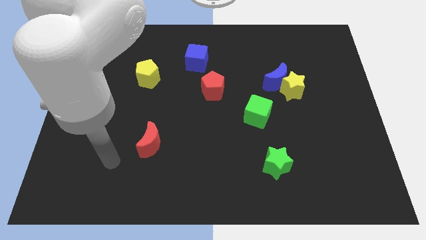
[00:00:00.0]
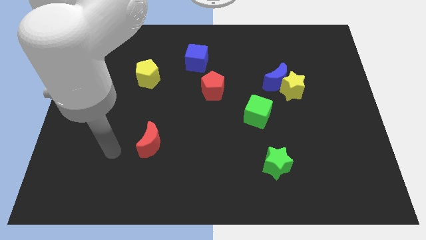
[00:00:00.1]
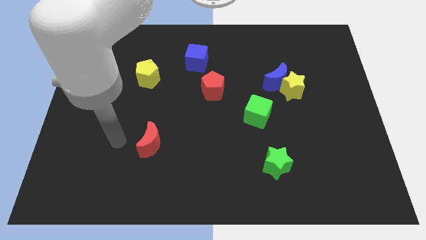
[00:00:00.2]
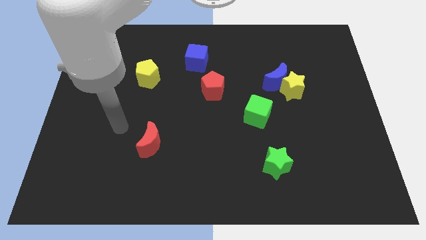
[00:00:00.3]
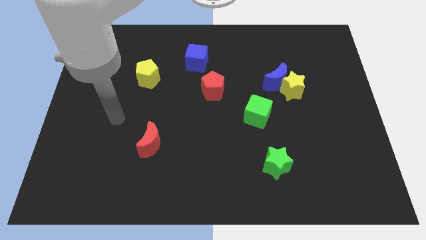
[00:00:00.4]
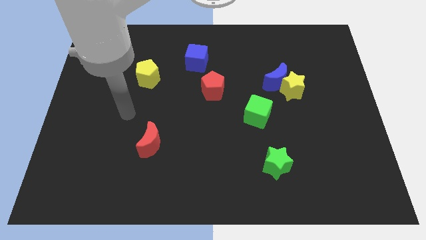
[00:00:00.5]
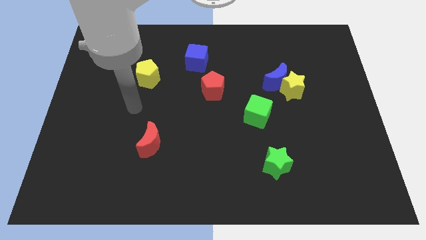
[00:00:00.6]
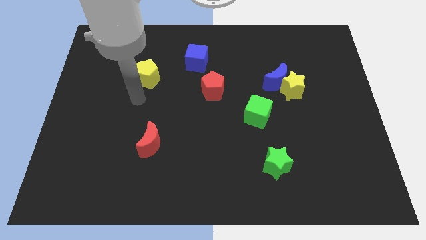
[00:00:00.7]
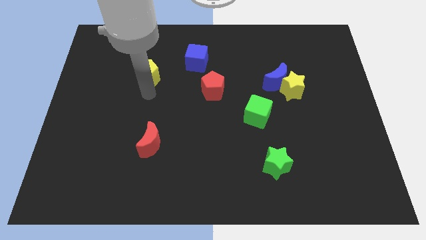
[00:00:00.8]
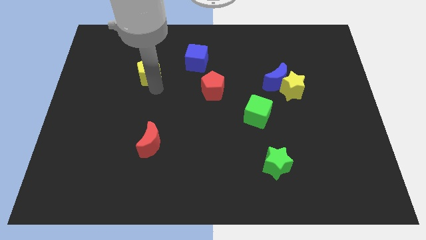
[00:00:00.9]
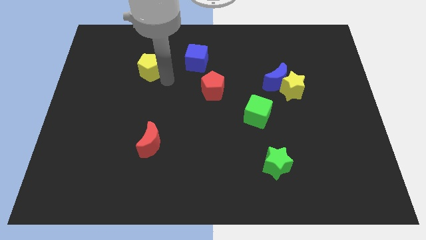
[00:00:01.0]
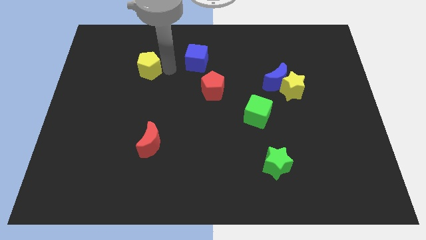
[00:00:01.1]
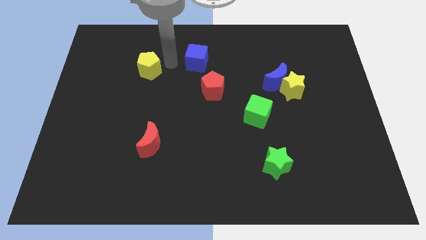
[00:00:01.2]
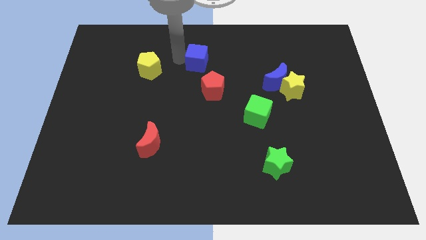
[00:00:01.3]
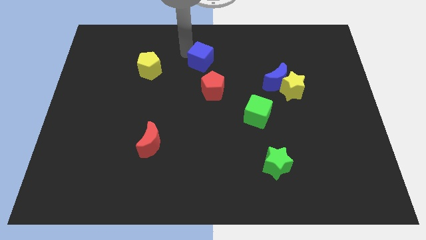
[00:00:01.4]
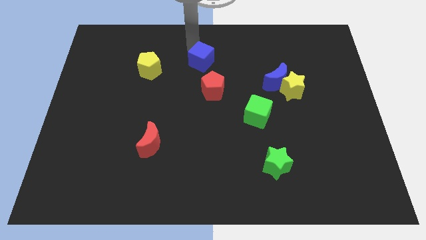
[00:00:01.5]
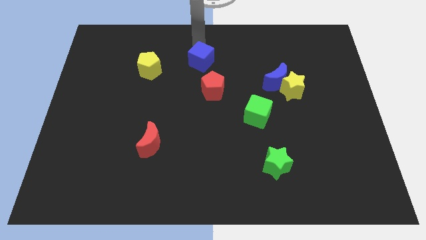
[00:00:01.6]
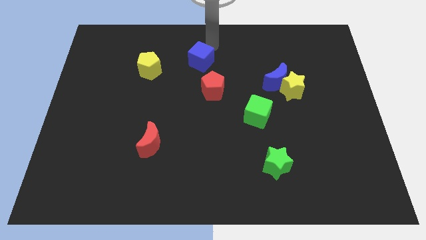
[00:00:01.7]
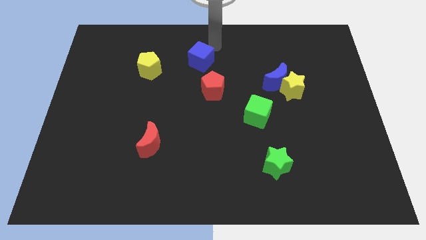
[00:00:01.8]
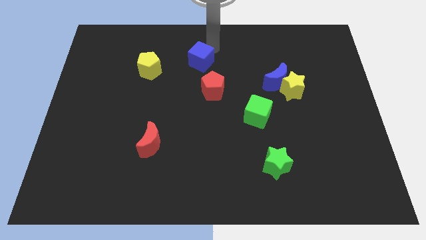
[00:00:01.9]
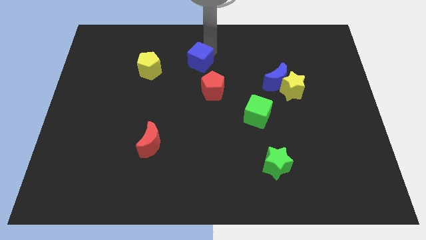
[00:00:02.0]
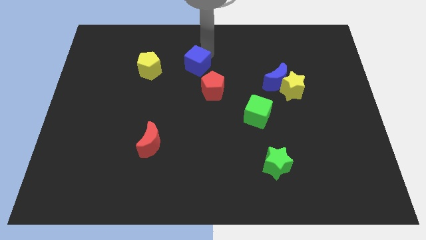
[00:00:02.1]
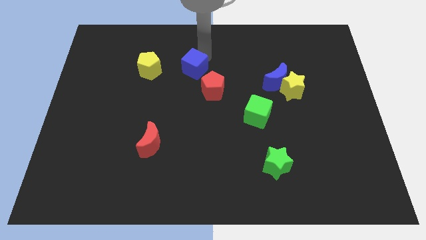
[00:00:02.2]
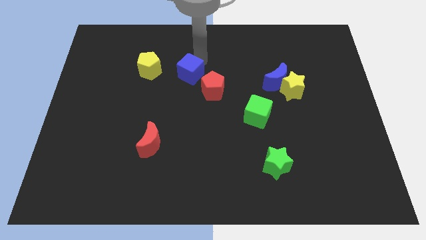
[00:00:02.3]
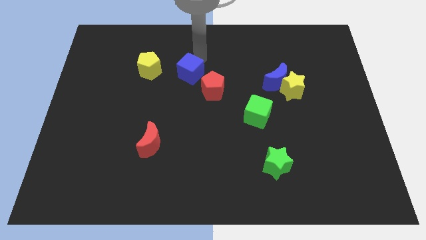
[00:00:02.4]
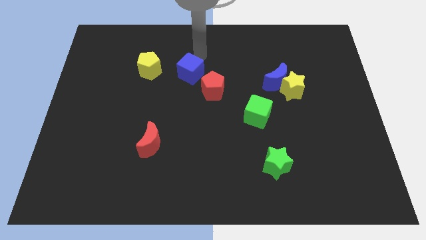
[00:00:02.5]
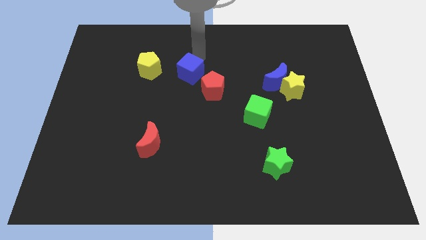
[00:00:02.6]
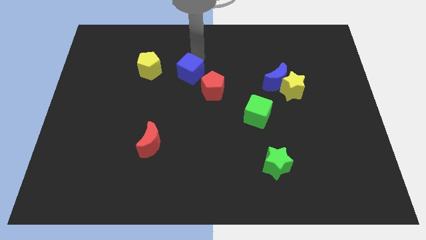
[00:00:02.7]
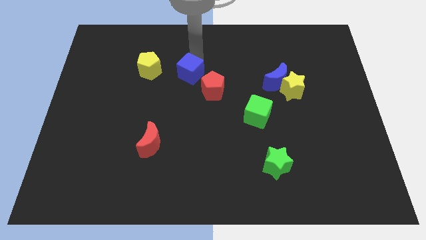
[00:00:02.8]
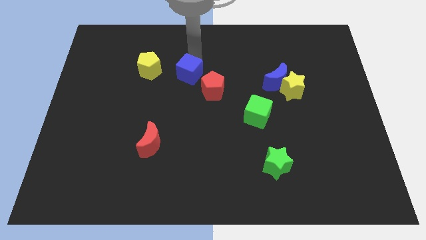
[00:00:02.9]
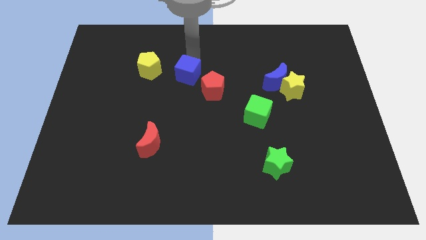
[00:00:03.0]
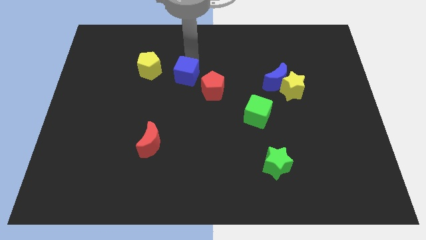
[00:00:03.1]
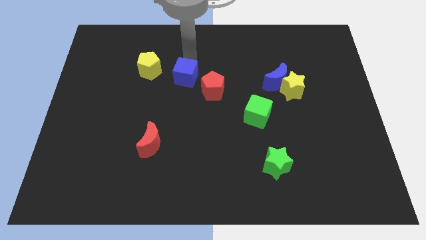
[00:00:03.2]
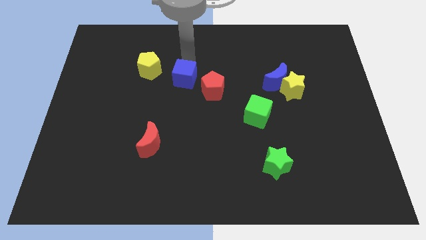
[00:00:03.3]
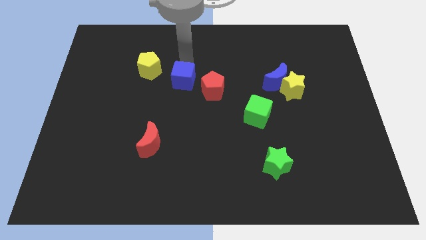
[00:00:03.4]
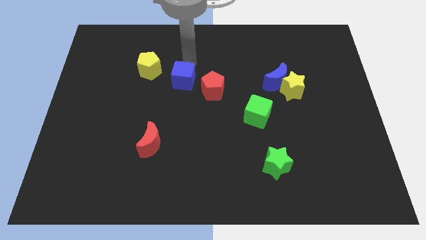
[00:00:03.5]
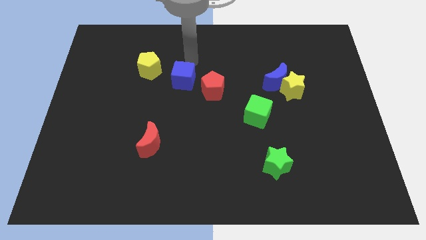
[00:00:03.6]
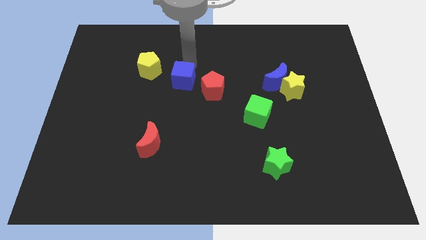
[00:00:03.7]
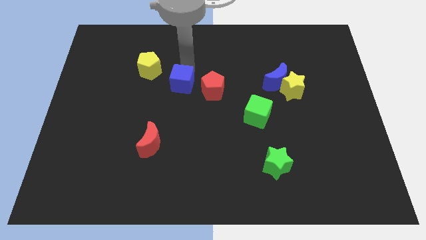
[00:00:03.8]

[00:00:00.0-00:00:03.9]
slightly push the blue cube downwards and then left

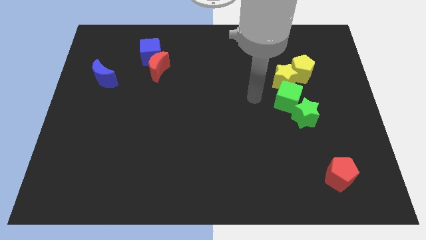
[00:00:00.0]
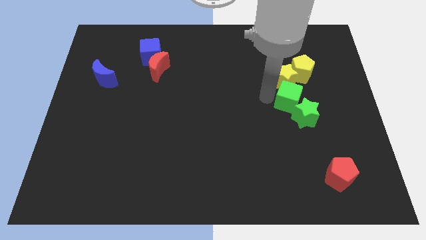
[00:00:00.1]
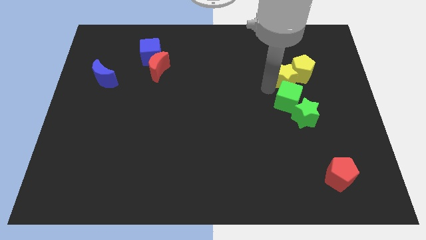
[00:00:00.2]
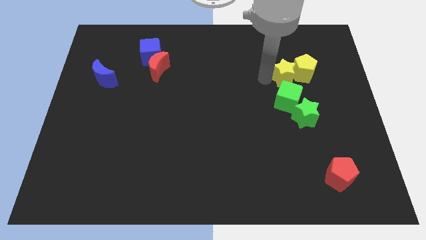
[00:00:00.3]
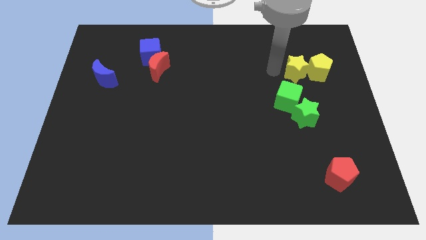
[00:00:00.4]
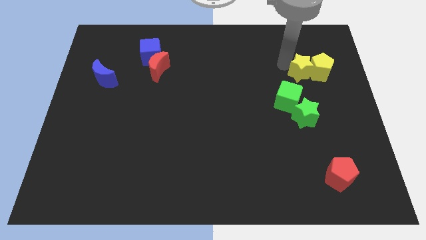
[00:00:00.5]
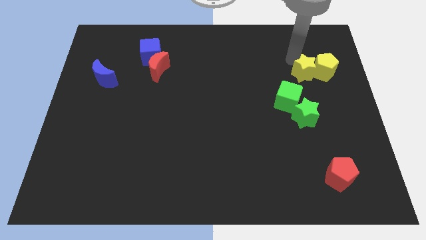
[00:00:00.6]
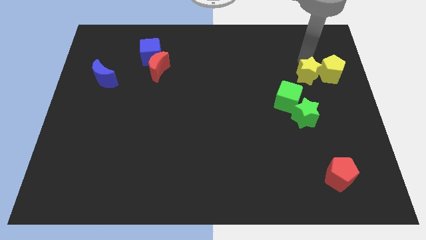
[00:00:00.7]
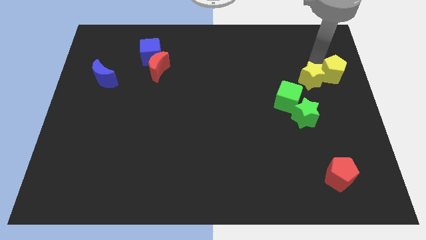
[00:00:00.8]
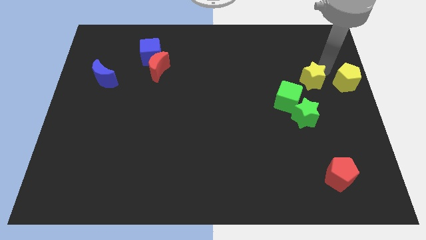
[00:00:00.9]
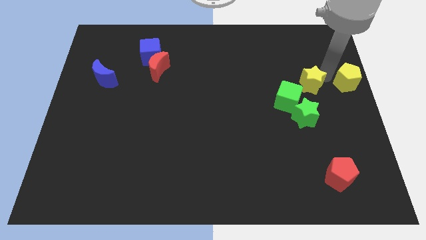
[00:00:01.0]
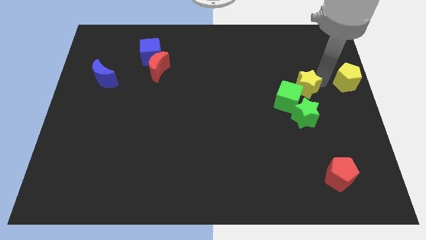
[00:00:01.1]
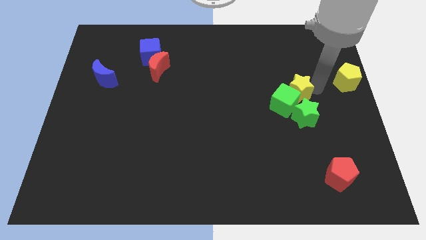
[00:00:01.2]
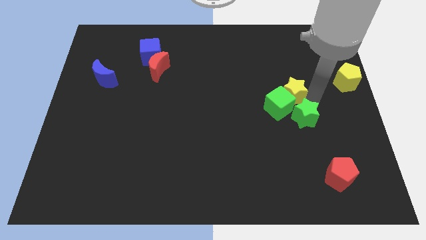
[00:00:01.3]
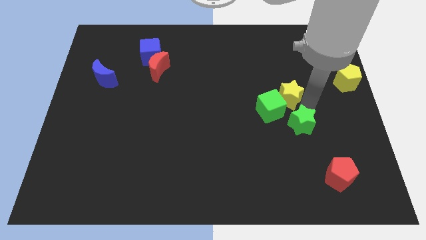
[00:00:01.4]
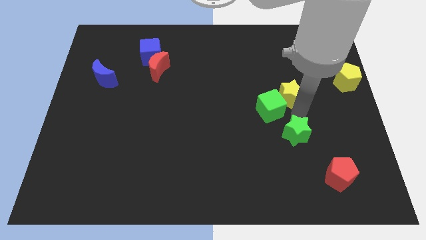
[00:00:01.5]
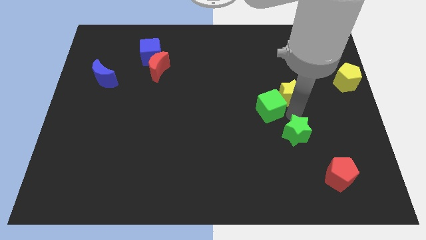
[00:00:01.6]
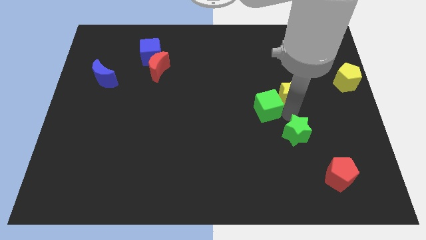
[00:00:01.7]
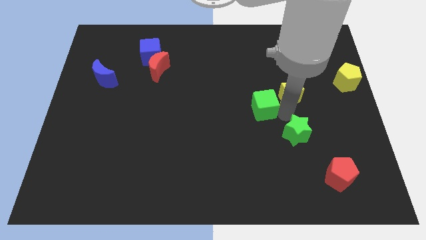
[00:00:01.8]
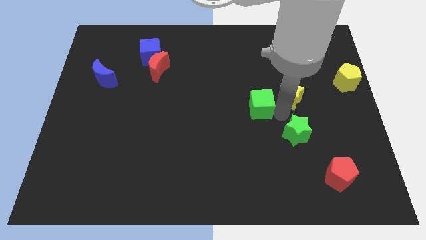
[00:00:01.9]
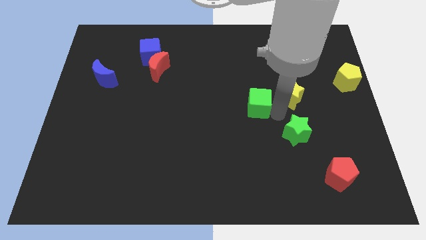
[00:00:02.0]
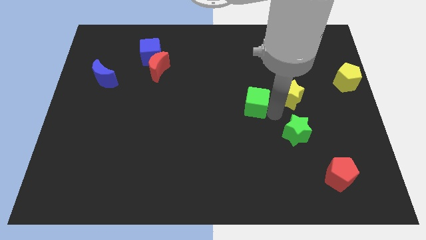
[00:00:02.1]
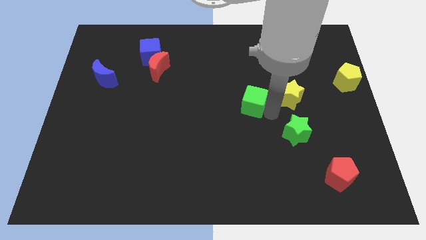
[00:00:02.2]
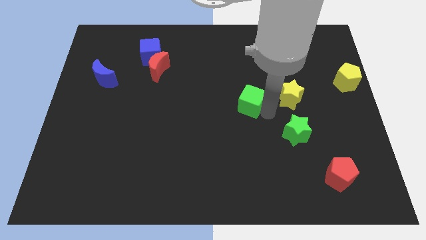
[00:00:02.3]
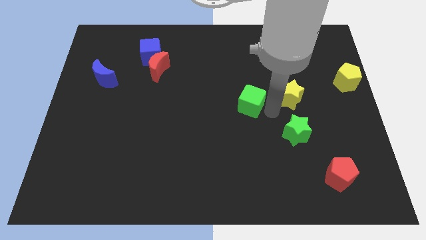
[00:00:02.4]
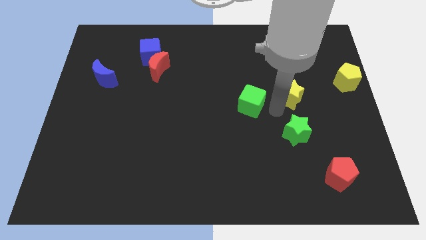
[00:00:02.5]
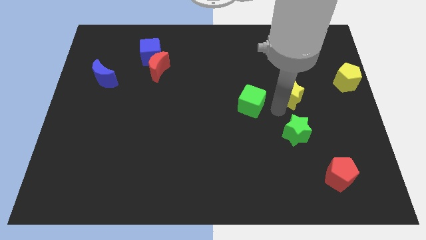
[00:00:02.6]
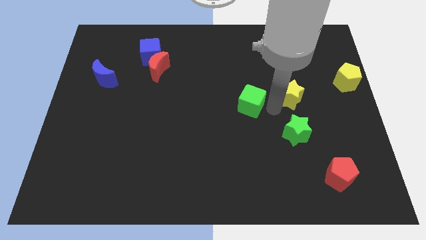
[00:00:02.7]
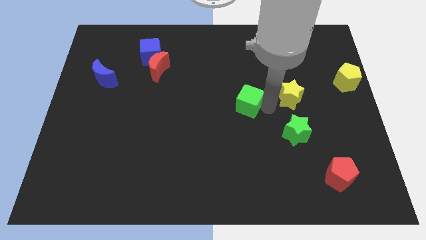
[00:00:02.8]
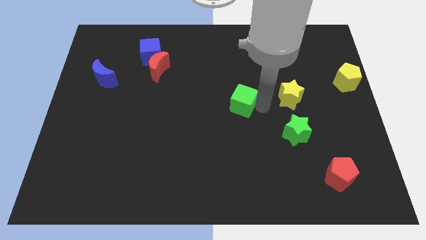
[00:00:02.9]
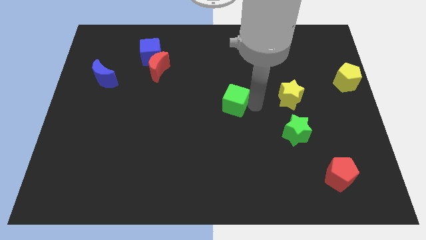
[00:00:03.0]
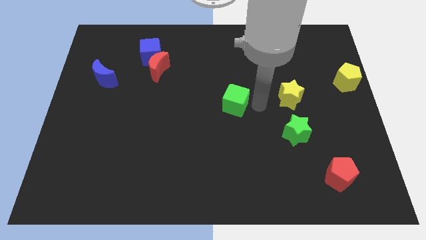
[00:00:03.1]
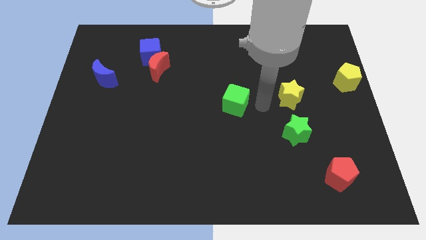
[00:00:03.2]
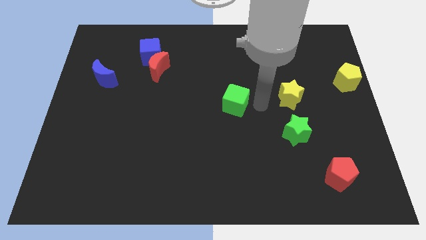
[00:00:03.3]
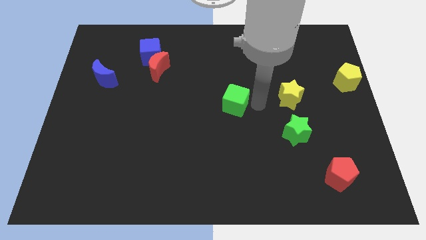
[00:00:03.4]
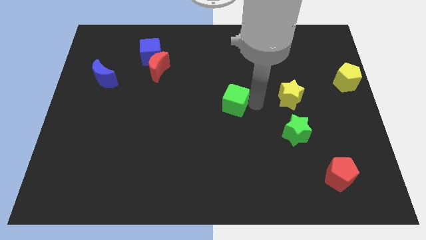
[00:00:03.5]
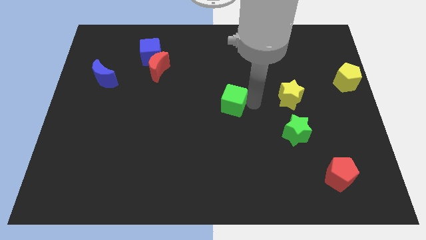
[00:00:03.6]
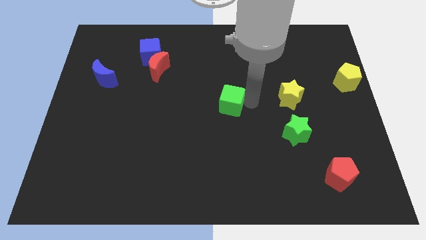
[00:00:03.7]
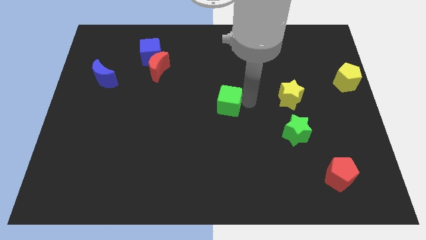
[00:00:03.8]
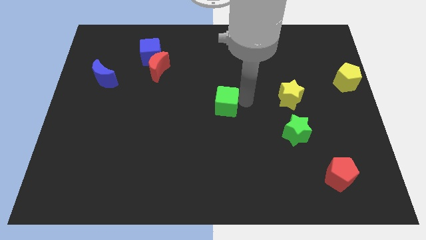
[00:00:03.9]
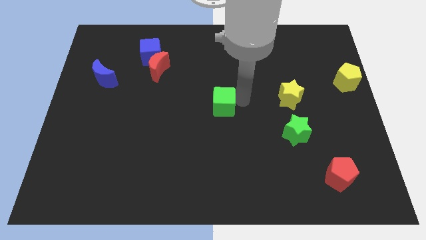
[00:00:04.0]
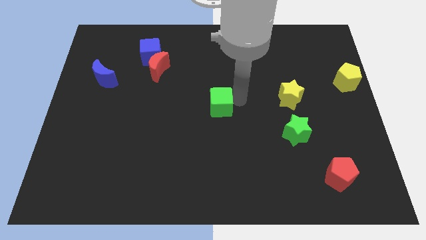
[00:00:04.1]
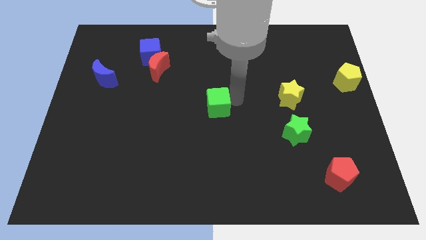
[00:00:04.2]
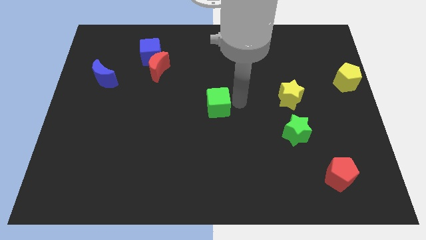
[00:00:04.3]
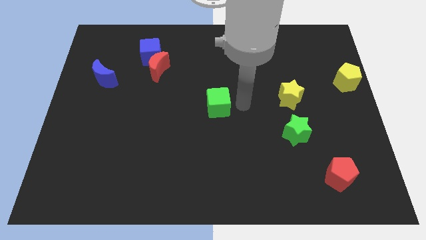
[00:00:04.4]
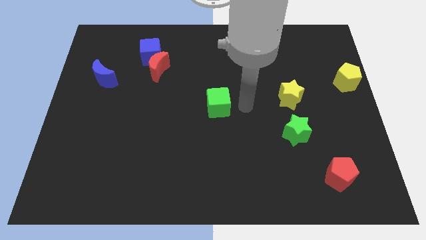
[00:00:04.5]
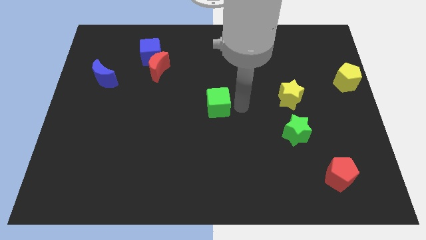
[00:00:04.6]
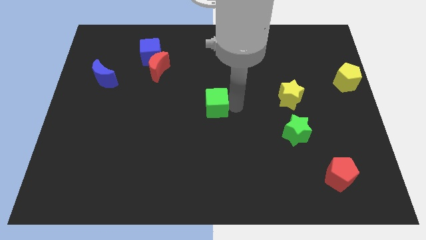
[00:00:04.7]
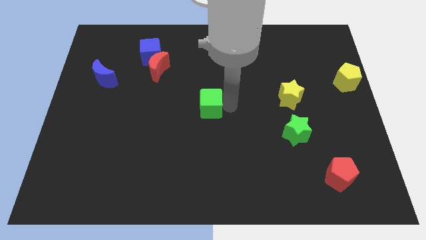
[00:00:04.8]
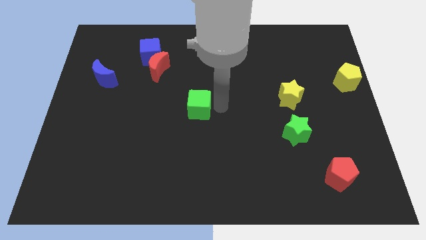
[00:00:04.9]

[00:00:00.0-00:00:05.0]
push the green cube to the left
